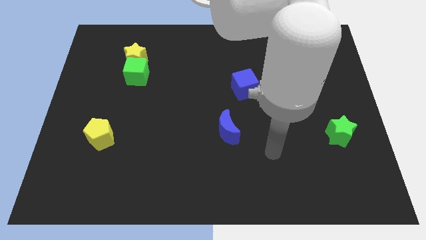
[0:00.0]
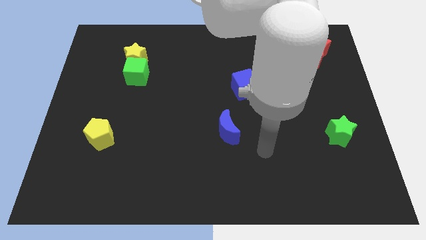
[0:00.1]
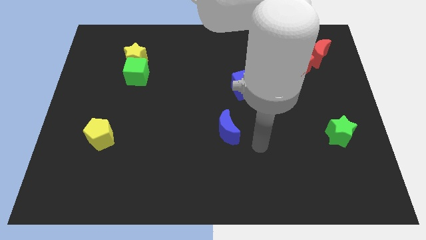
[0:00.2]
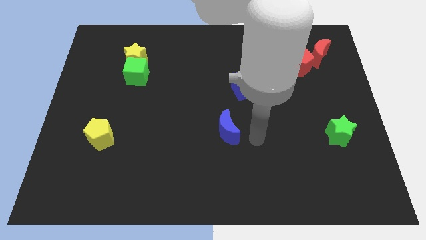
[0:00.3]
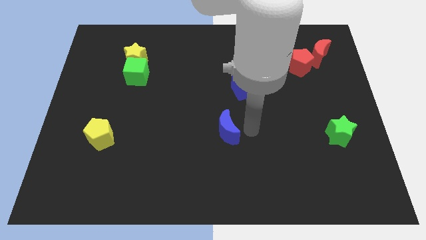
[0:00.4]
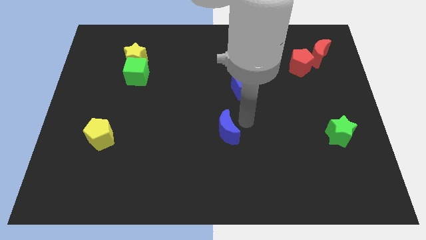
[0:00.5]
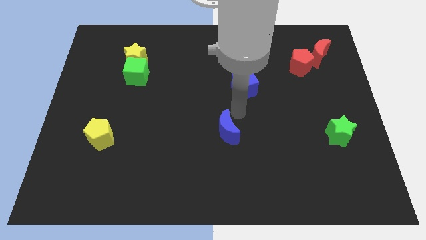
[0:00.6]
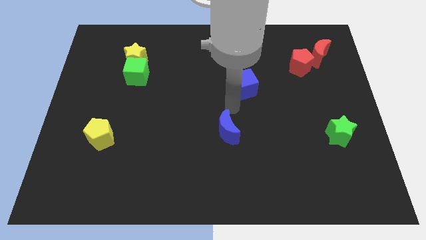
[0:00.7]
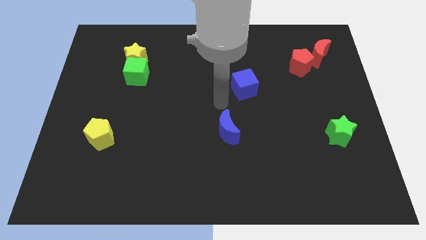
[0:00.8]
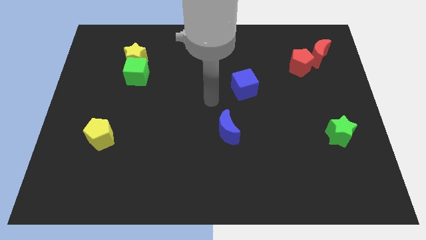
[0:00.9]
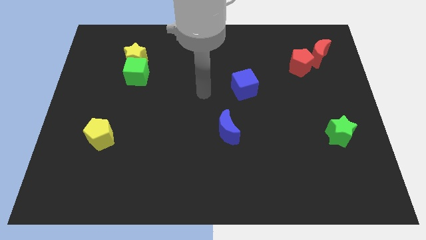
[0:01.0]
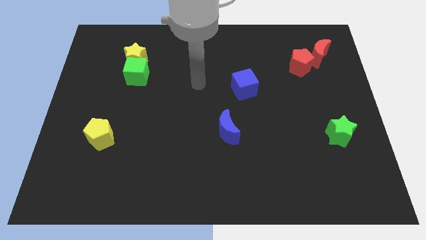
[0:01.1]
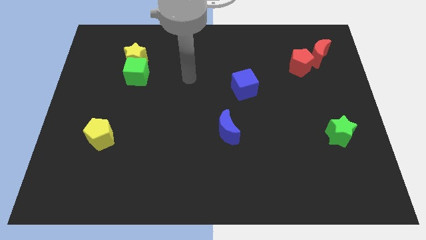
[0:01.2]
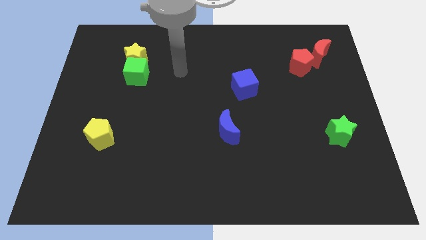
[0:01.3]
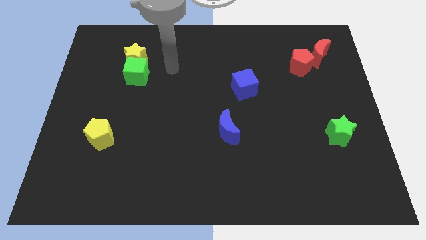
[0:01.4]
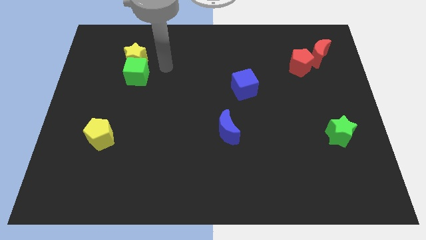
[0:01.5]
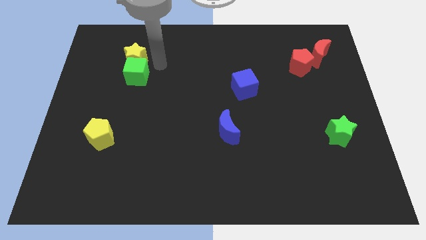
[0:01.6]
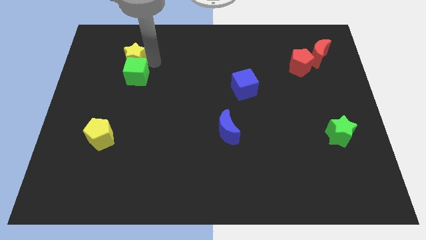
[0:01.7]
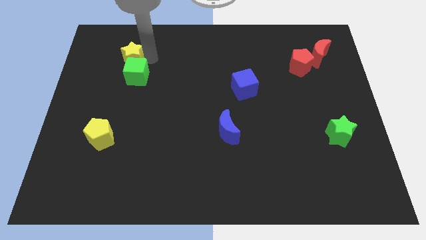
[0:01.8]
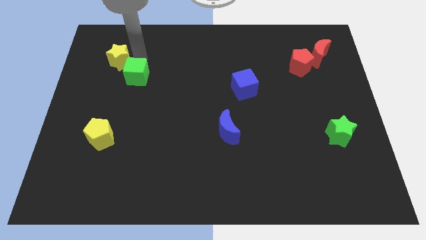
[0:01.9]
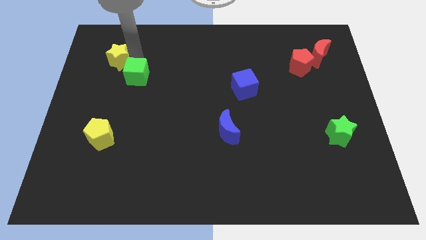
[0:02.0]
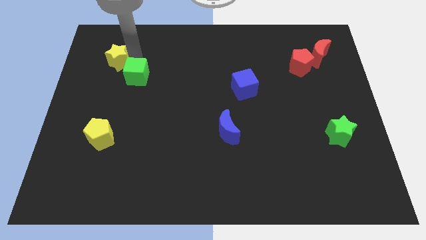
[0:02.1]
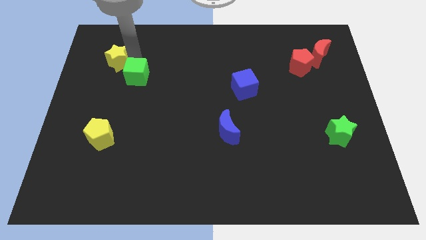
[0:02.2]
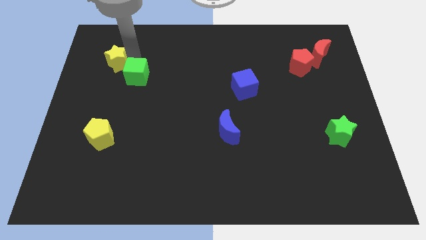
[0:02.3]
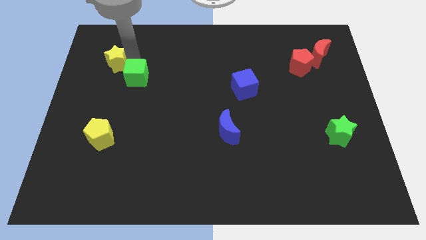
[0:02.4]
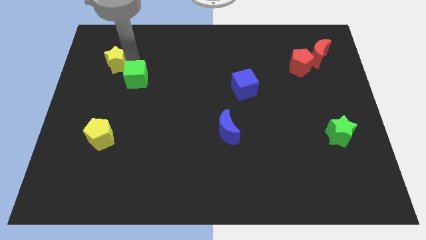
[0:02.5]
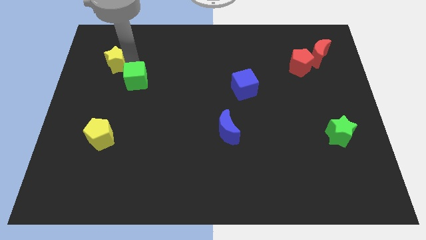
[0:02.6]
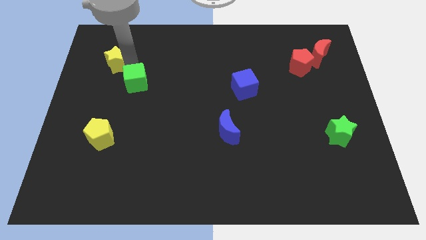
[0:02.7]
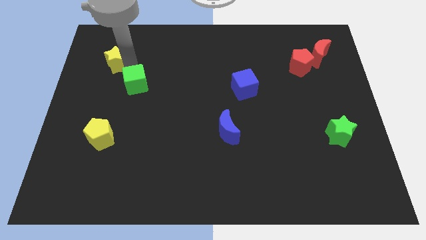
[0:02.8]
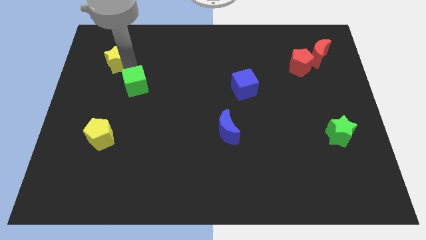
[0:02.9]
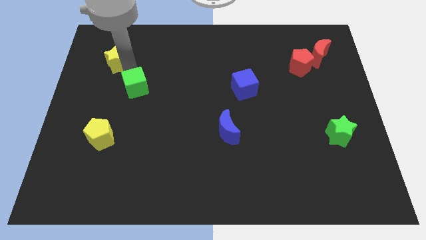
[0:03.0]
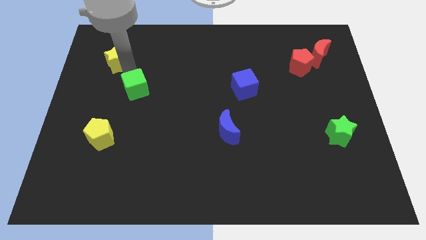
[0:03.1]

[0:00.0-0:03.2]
move the green cube away from the yellow star

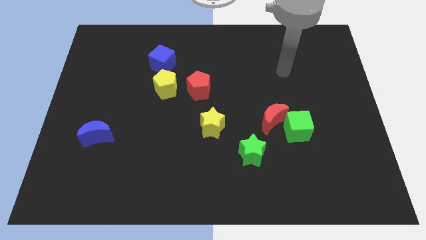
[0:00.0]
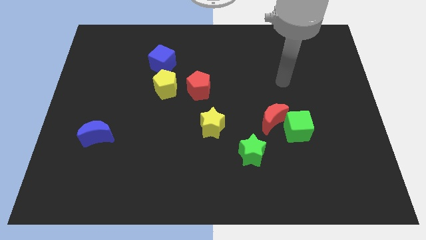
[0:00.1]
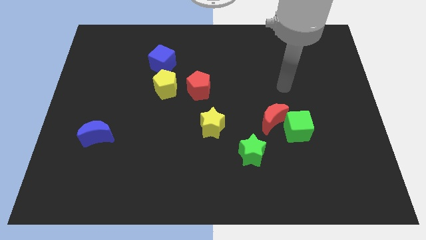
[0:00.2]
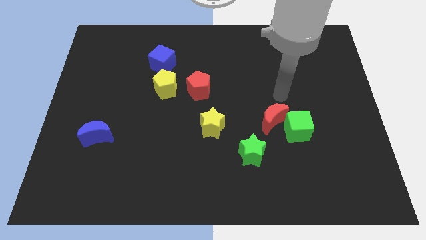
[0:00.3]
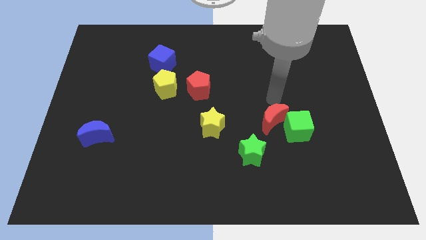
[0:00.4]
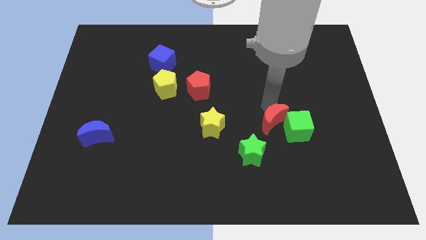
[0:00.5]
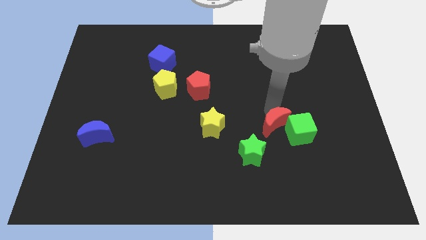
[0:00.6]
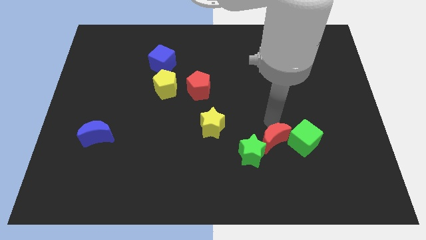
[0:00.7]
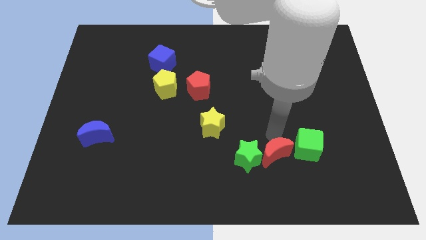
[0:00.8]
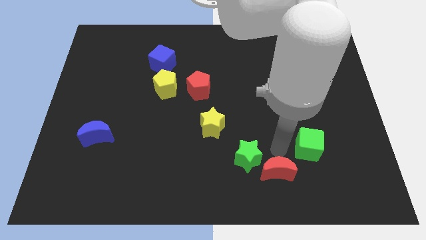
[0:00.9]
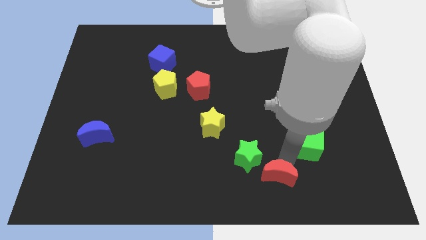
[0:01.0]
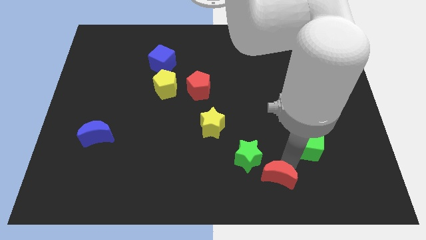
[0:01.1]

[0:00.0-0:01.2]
move the green cube away from the red moon

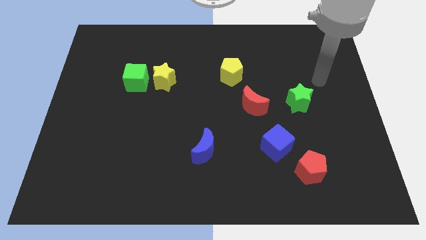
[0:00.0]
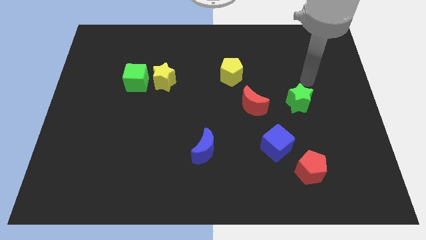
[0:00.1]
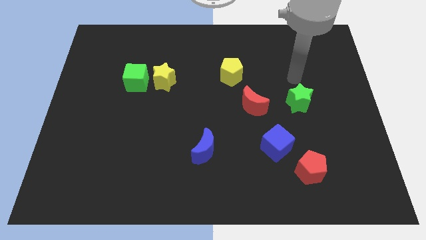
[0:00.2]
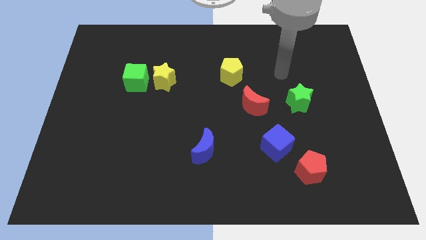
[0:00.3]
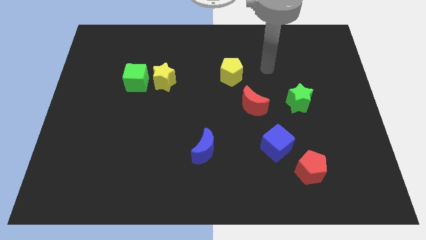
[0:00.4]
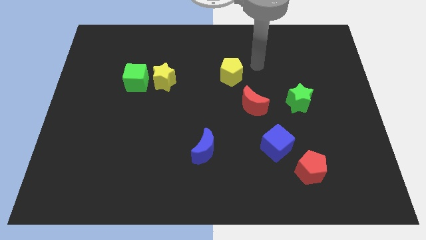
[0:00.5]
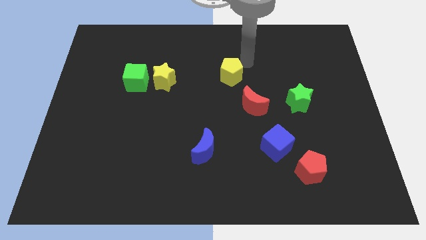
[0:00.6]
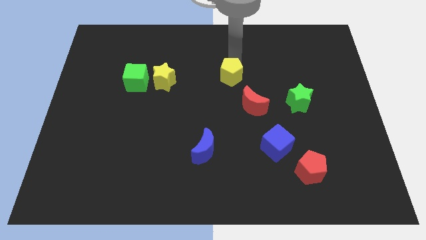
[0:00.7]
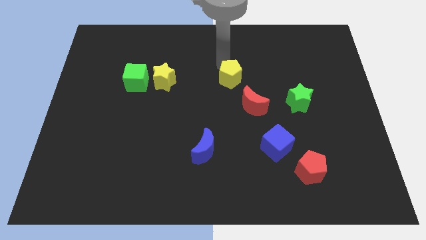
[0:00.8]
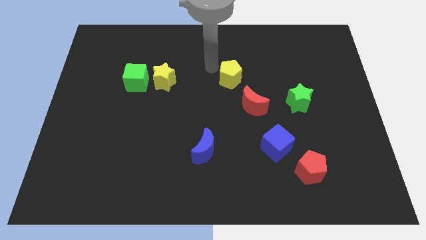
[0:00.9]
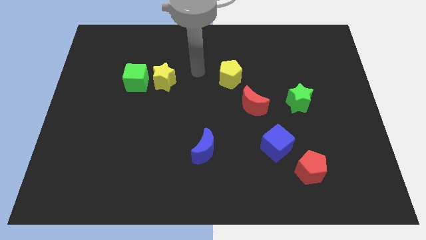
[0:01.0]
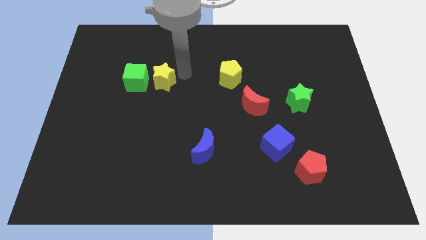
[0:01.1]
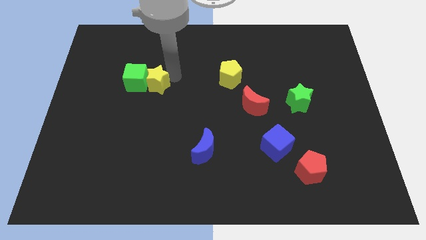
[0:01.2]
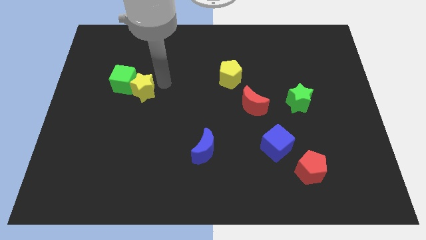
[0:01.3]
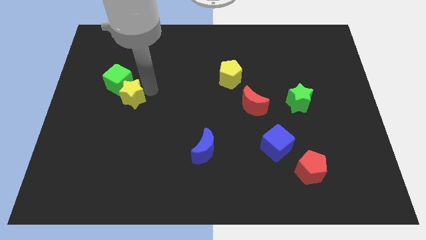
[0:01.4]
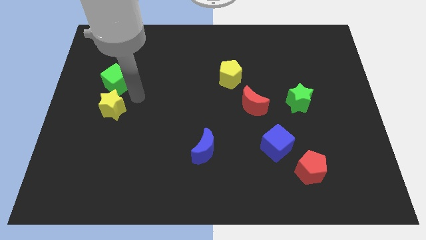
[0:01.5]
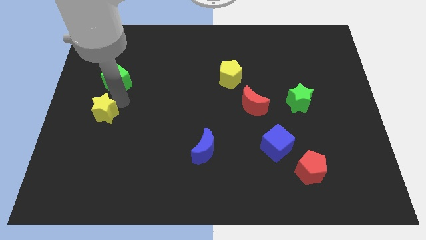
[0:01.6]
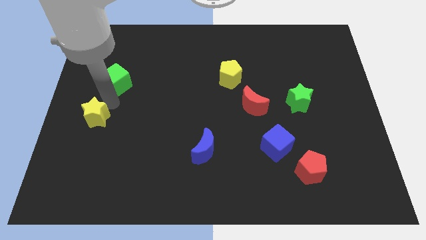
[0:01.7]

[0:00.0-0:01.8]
pull the green cube apart from the yellow star

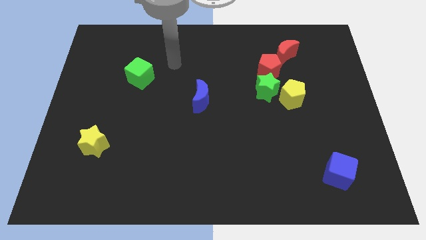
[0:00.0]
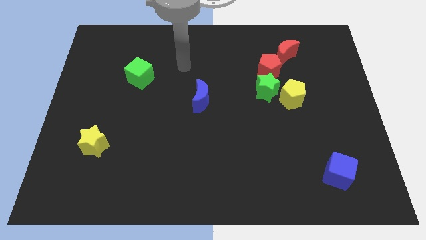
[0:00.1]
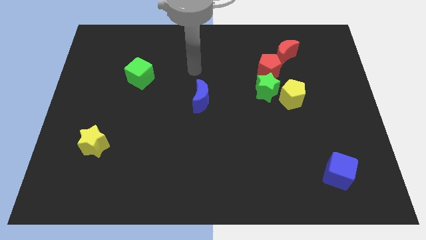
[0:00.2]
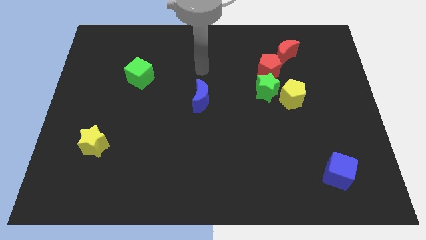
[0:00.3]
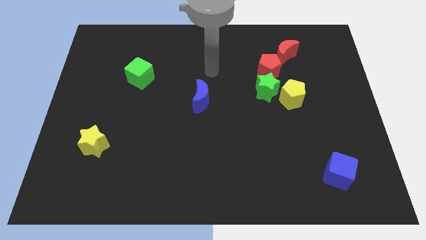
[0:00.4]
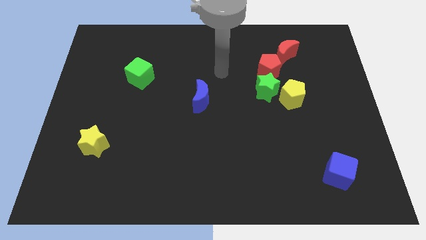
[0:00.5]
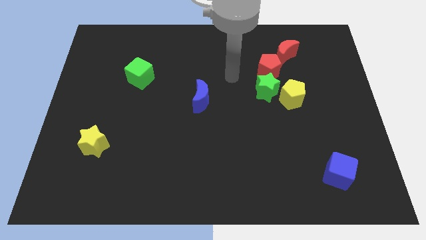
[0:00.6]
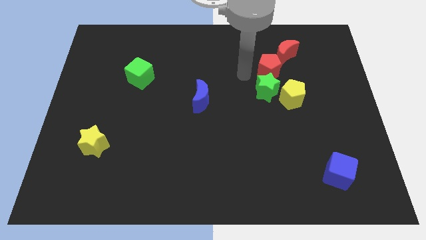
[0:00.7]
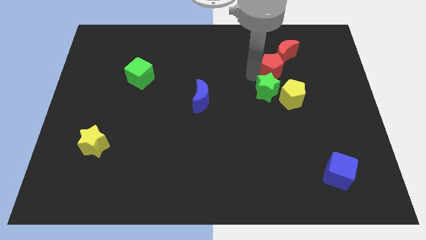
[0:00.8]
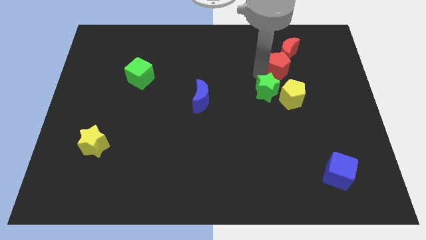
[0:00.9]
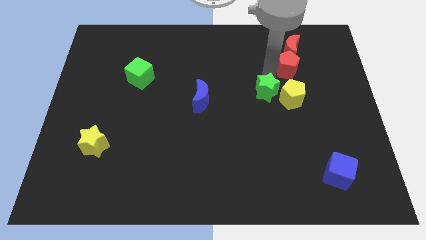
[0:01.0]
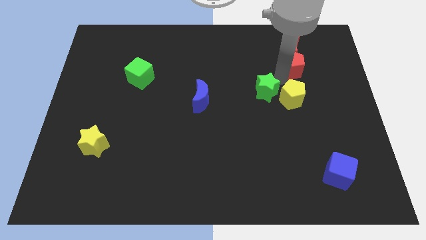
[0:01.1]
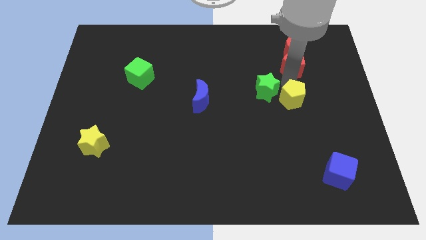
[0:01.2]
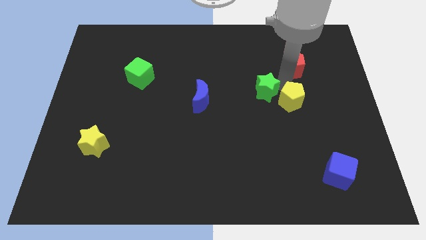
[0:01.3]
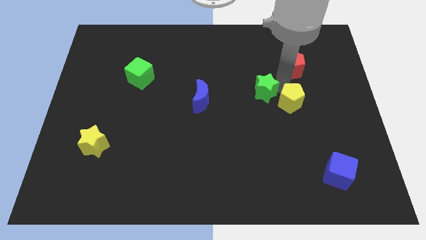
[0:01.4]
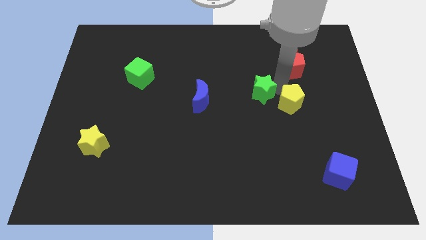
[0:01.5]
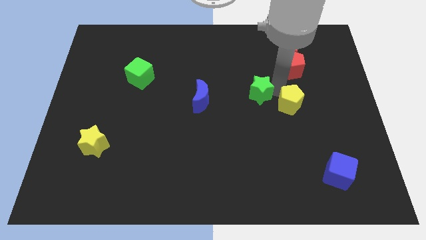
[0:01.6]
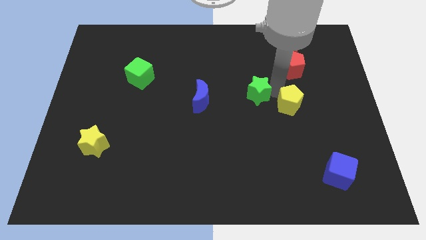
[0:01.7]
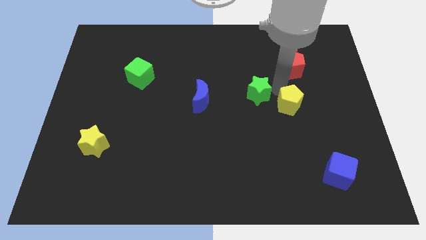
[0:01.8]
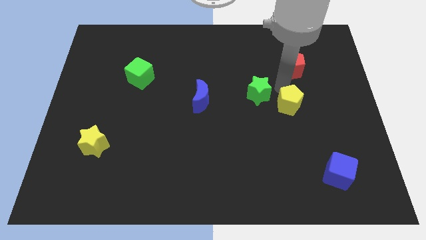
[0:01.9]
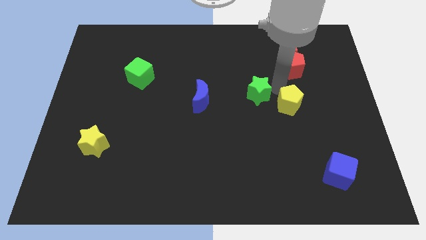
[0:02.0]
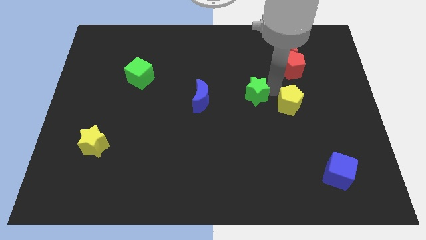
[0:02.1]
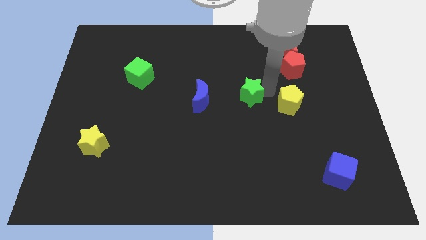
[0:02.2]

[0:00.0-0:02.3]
pull the green star apart from the yellow pentagon and red pentagon

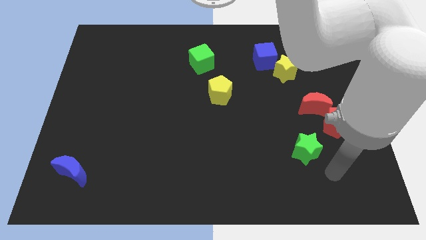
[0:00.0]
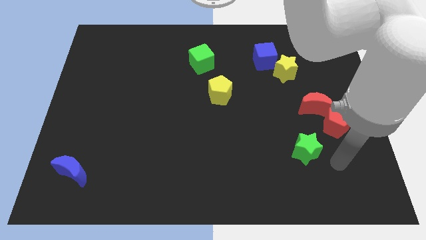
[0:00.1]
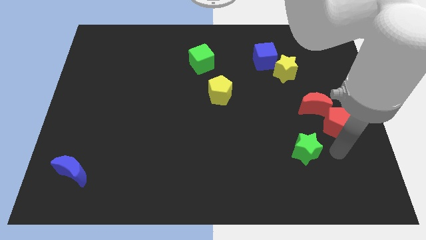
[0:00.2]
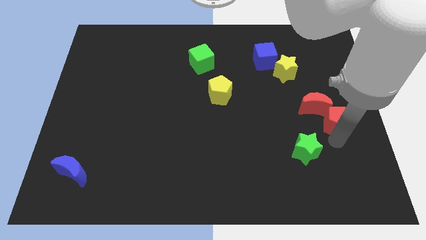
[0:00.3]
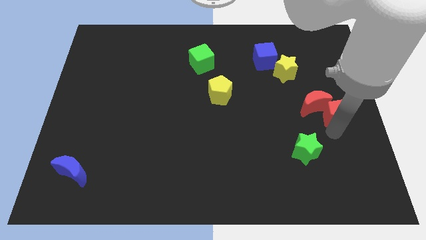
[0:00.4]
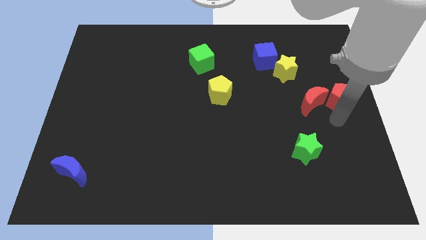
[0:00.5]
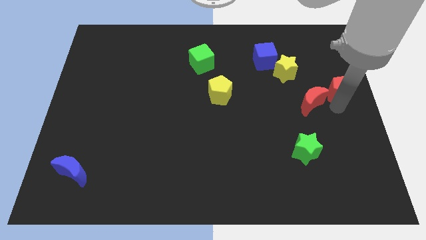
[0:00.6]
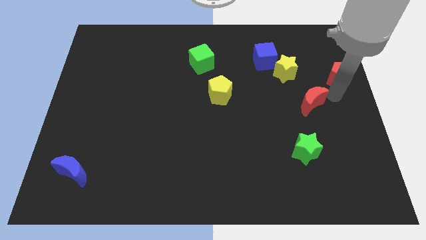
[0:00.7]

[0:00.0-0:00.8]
move the red moon away from the red pentagon
